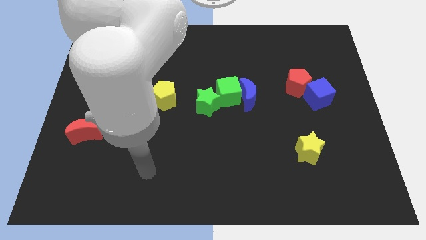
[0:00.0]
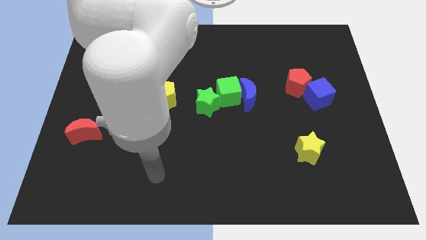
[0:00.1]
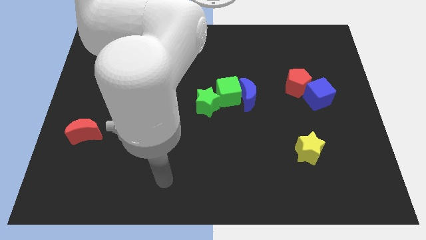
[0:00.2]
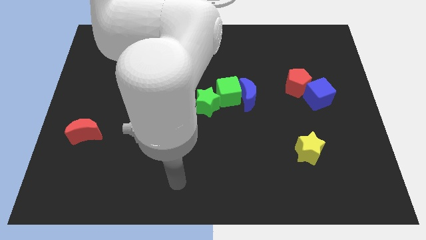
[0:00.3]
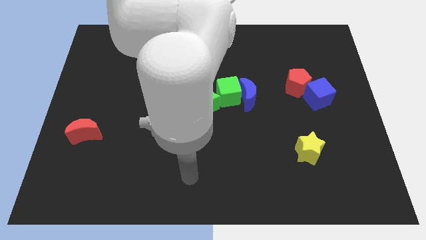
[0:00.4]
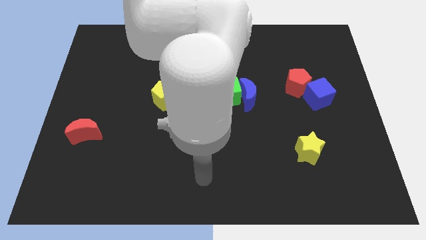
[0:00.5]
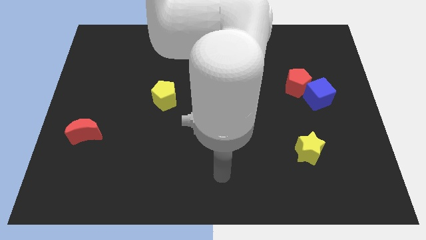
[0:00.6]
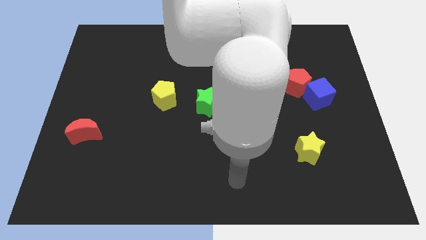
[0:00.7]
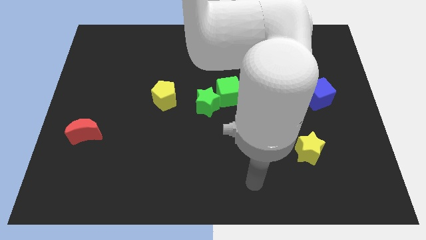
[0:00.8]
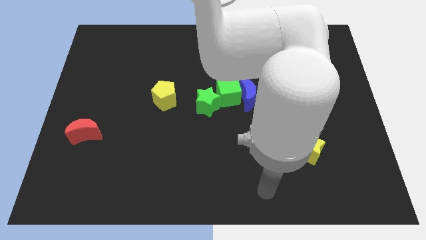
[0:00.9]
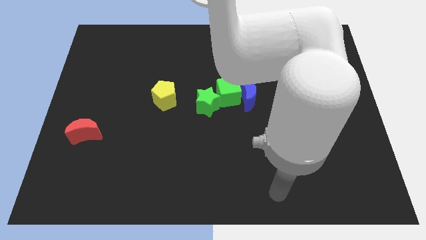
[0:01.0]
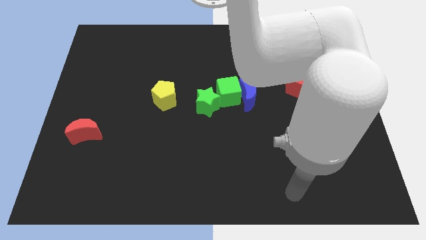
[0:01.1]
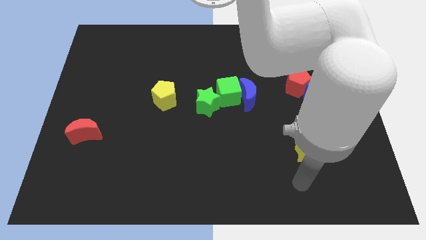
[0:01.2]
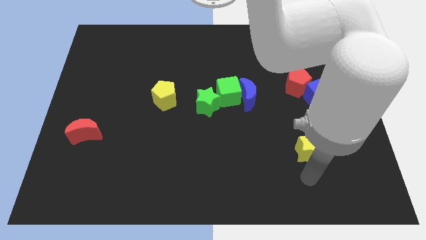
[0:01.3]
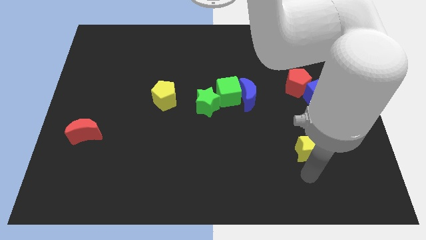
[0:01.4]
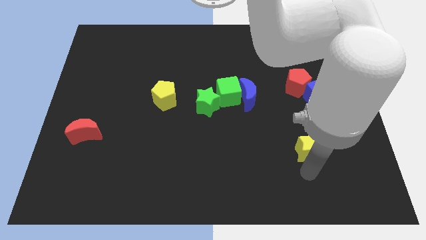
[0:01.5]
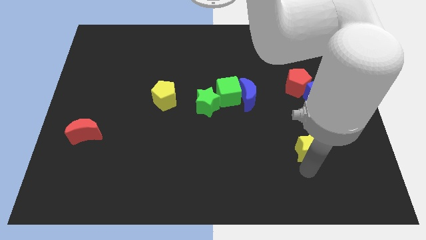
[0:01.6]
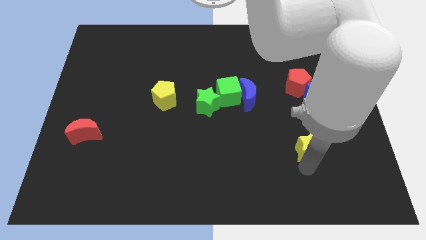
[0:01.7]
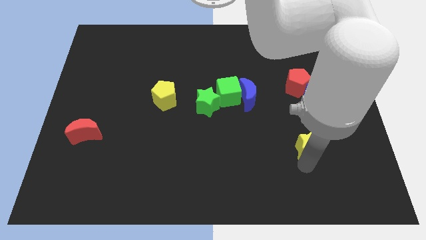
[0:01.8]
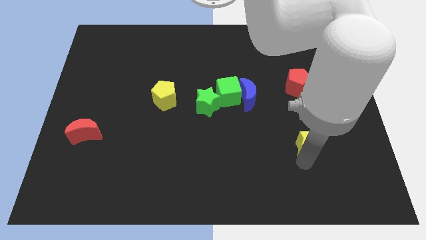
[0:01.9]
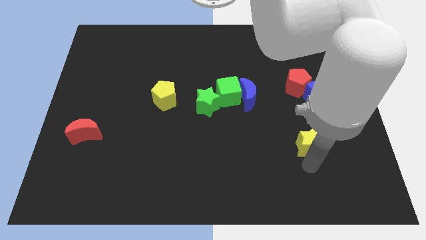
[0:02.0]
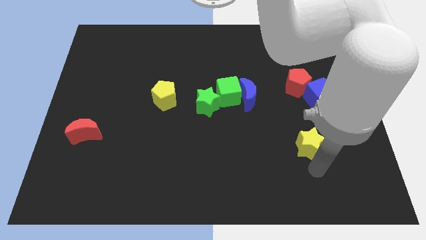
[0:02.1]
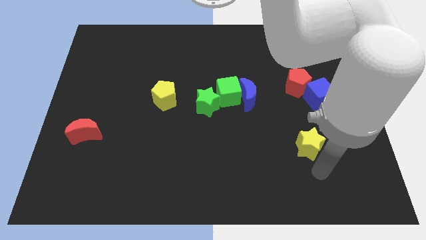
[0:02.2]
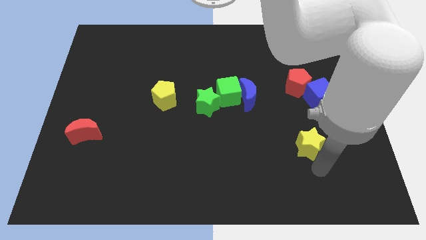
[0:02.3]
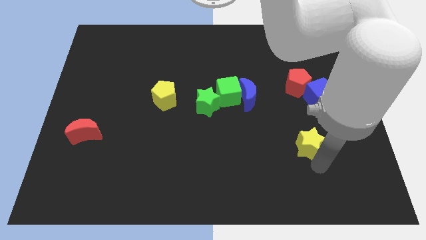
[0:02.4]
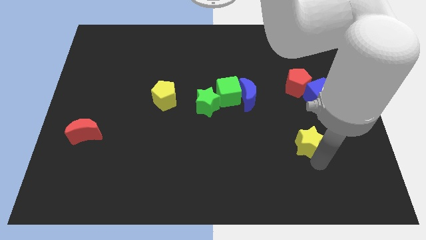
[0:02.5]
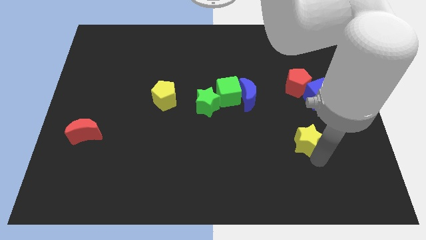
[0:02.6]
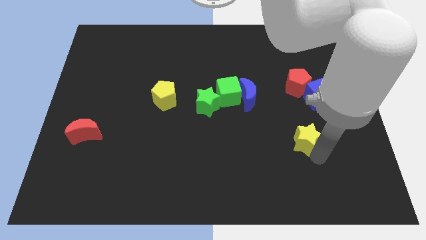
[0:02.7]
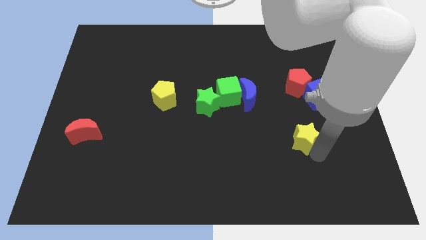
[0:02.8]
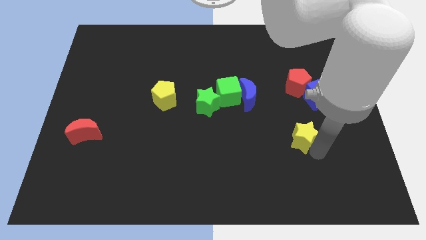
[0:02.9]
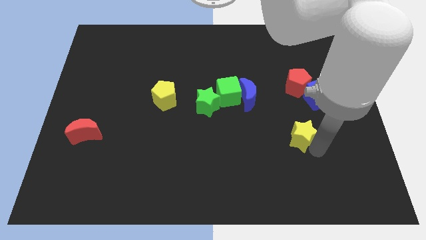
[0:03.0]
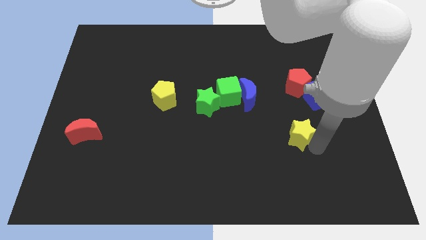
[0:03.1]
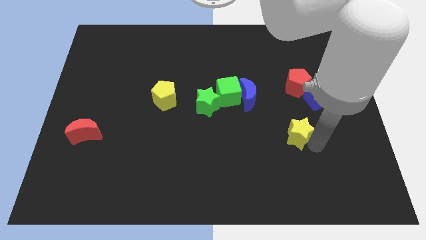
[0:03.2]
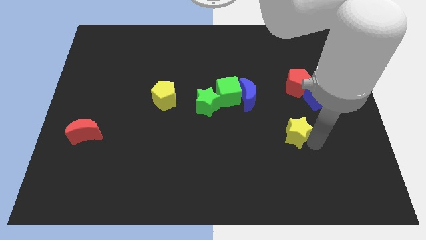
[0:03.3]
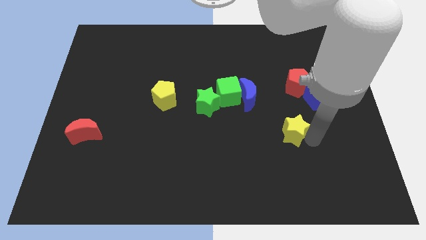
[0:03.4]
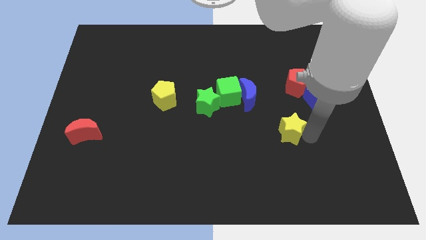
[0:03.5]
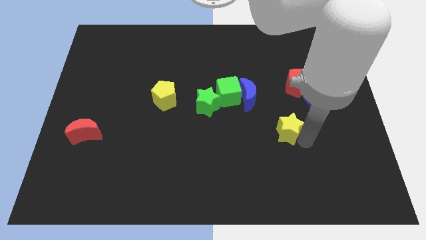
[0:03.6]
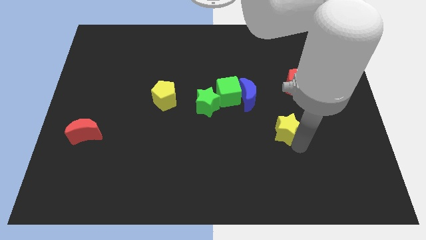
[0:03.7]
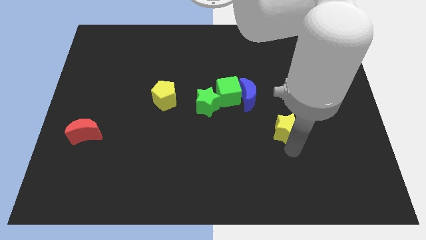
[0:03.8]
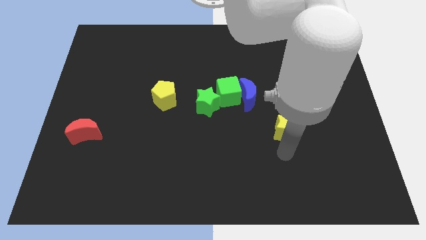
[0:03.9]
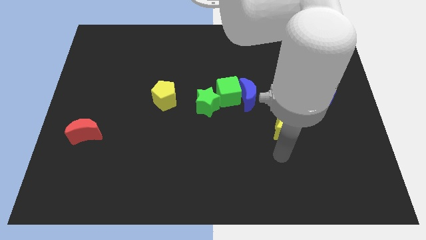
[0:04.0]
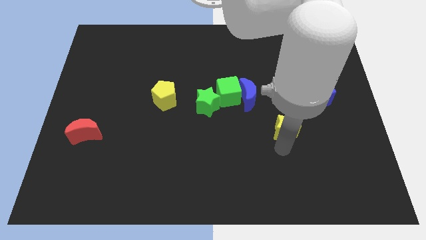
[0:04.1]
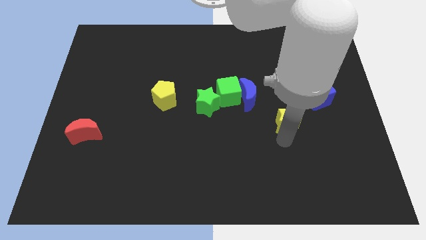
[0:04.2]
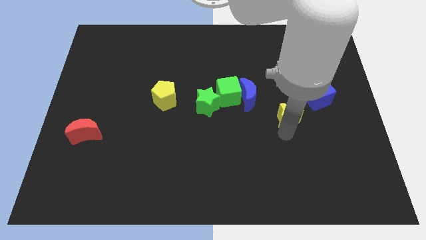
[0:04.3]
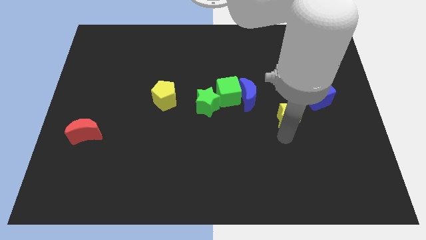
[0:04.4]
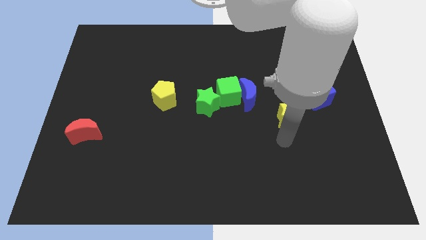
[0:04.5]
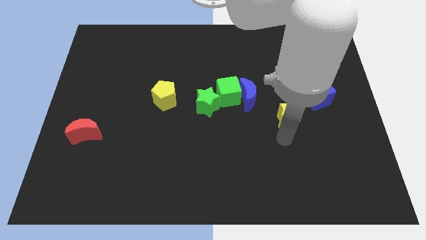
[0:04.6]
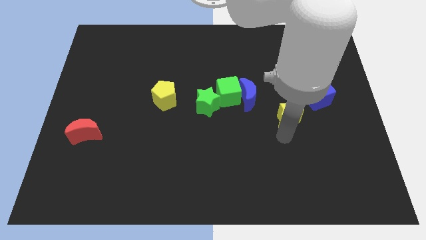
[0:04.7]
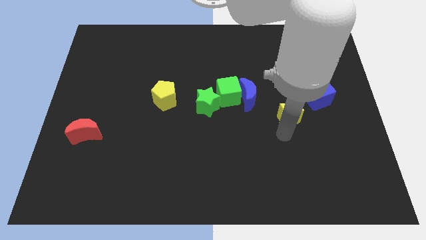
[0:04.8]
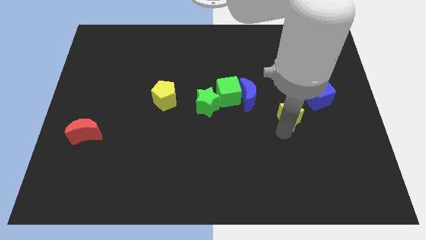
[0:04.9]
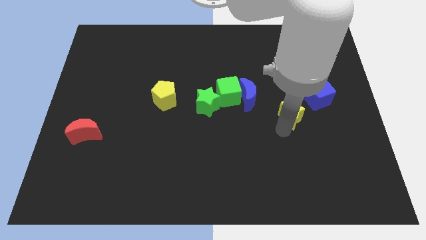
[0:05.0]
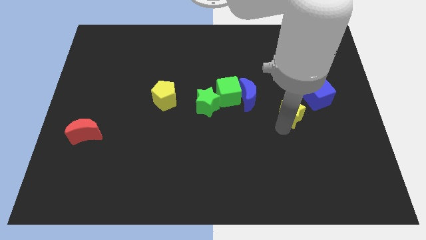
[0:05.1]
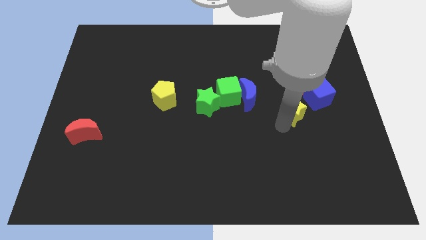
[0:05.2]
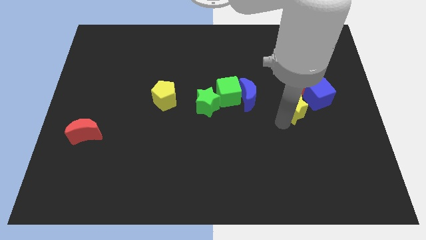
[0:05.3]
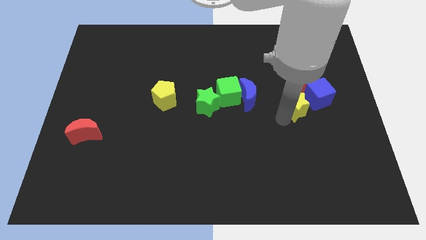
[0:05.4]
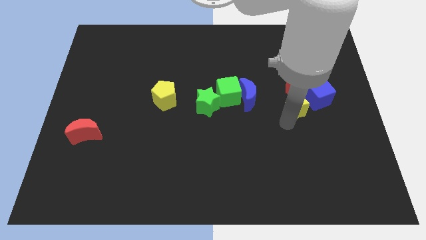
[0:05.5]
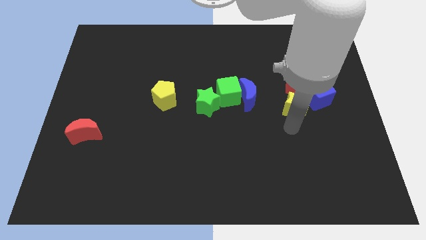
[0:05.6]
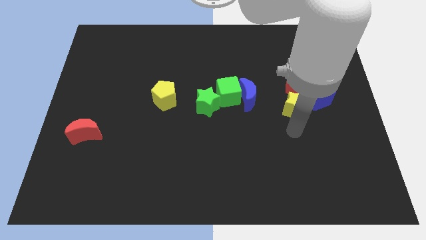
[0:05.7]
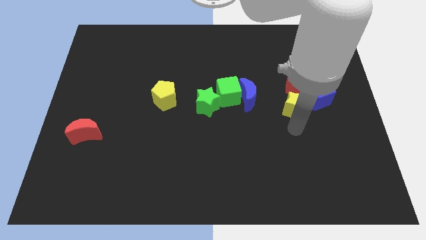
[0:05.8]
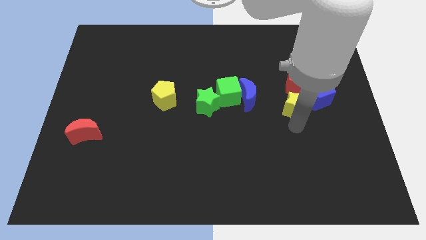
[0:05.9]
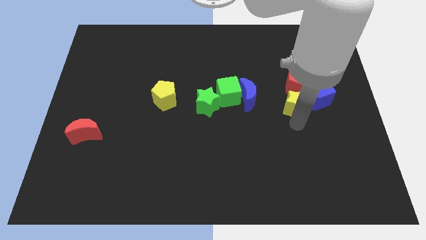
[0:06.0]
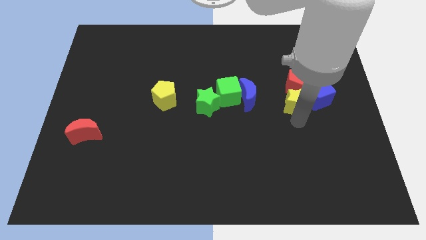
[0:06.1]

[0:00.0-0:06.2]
move the yellow star to the red pentagon
